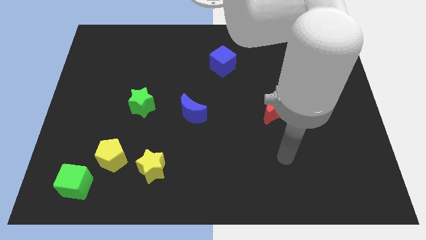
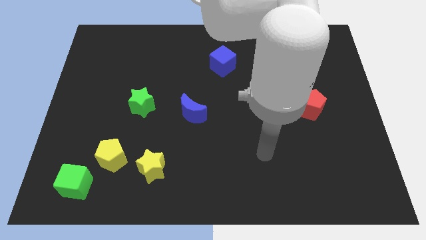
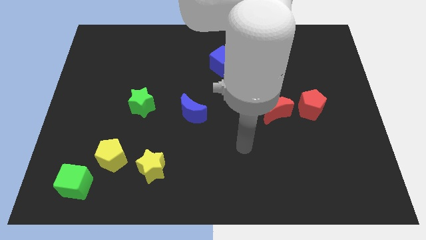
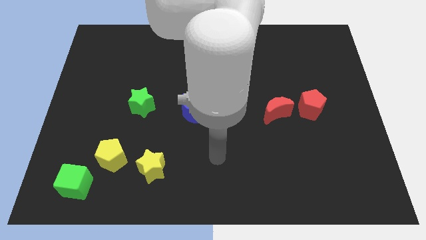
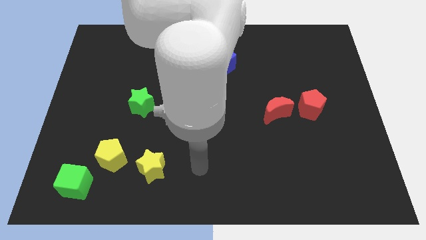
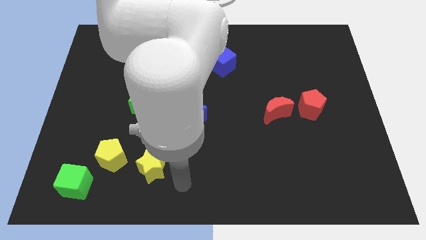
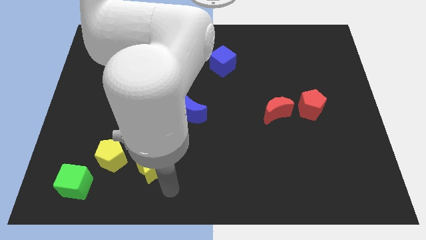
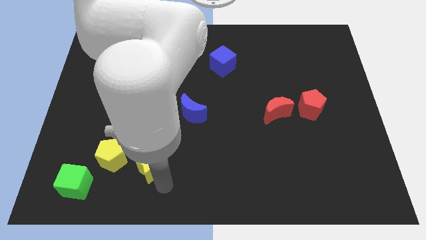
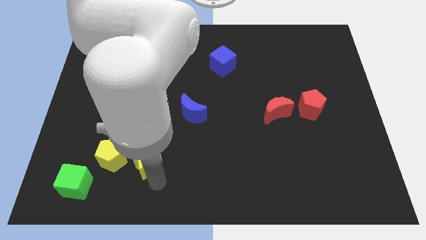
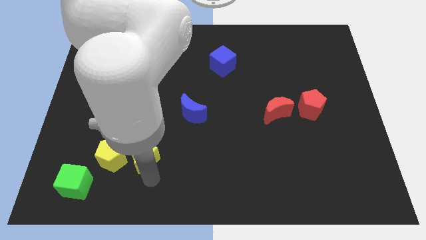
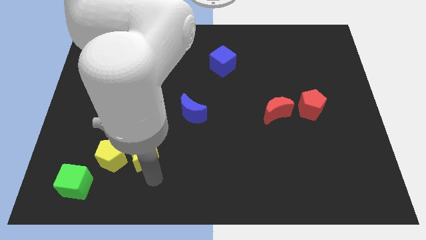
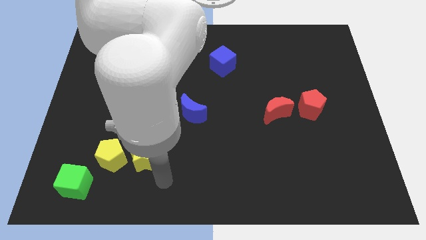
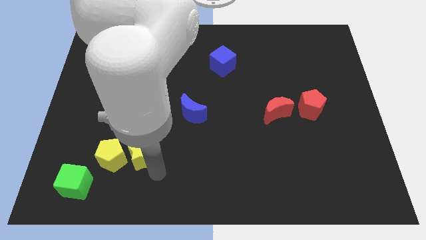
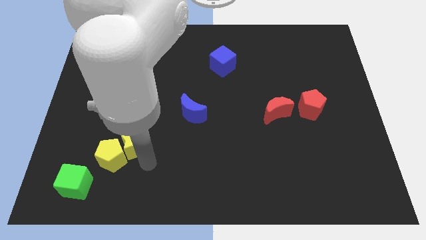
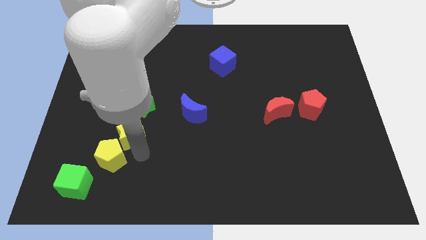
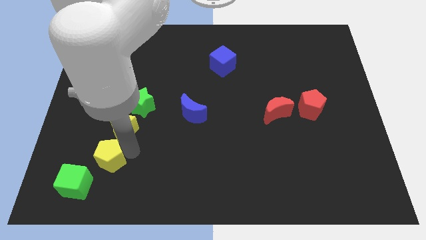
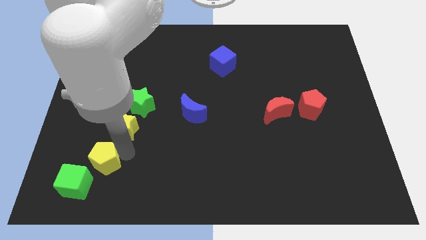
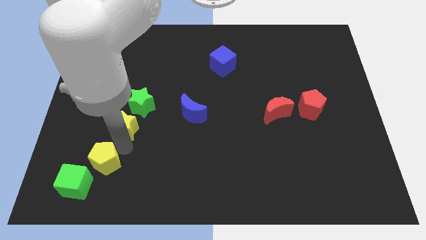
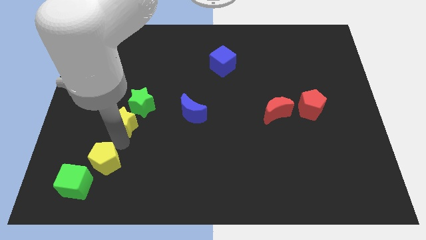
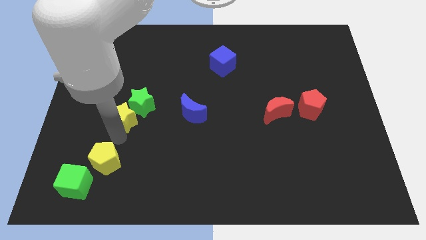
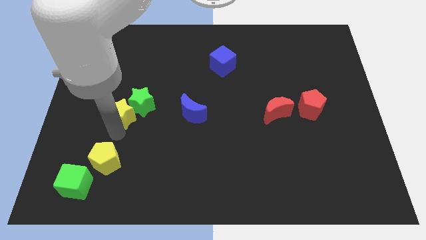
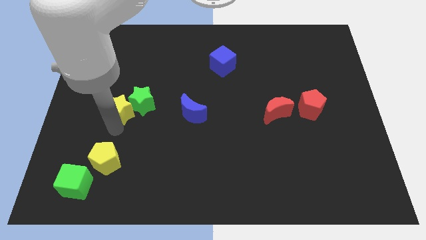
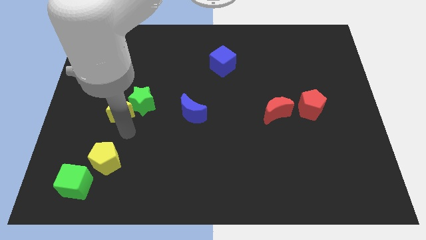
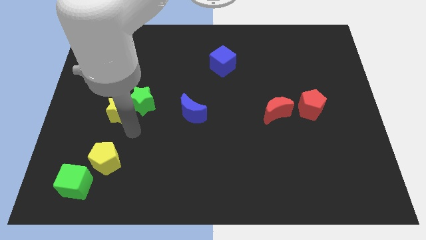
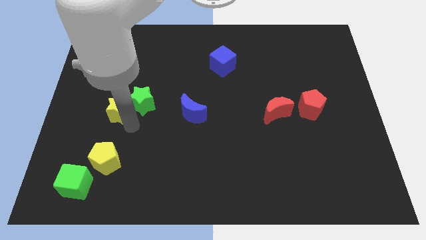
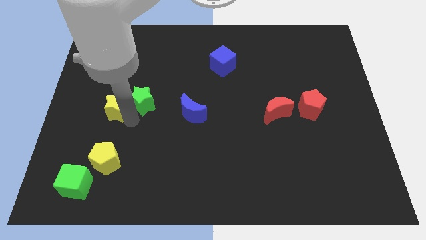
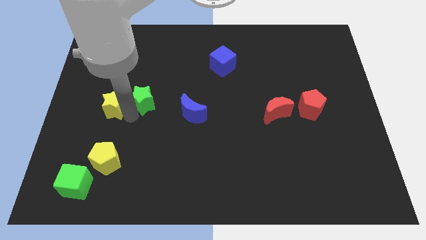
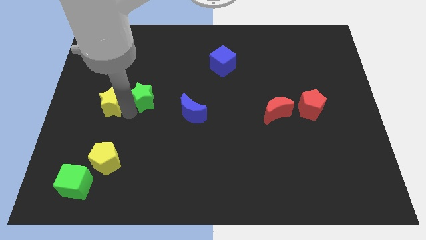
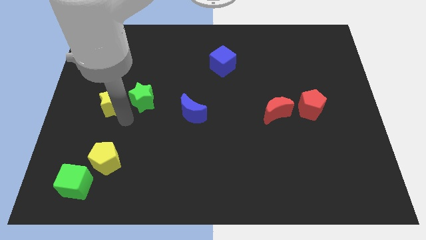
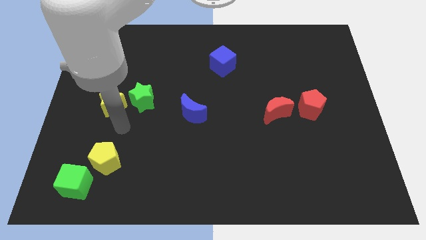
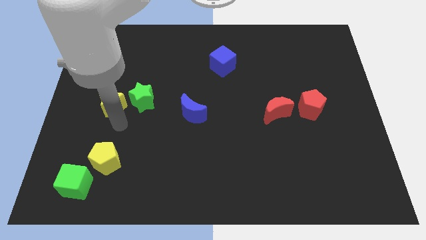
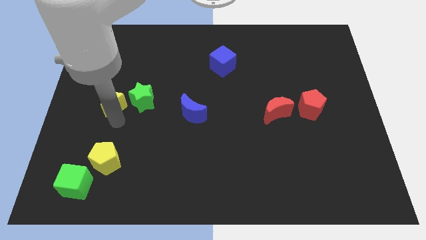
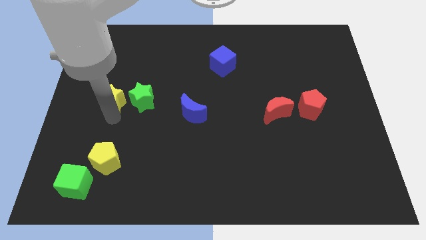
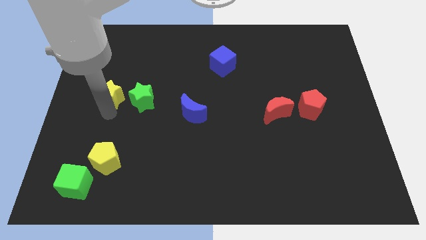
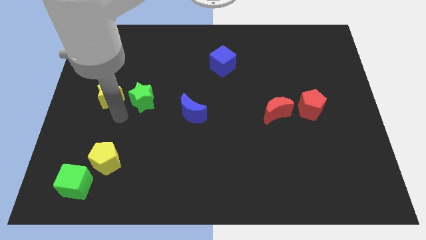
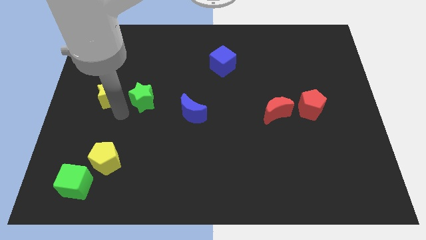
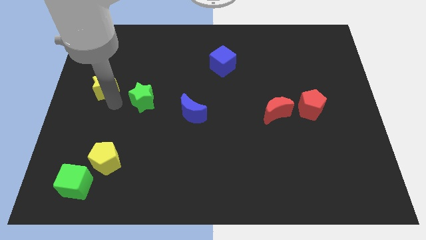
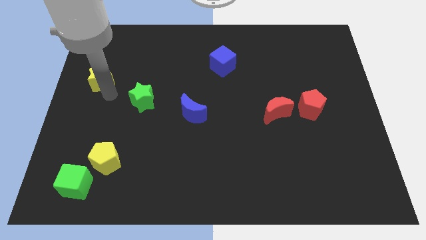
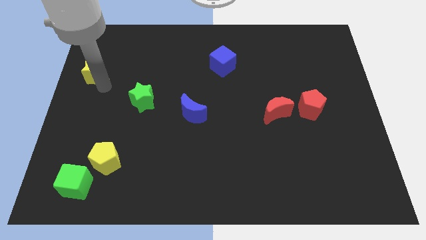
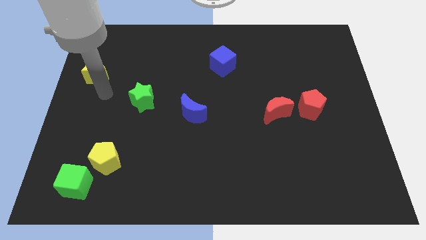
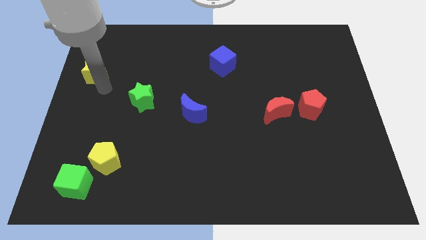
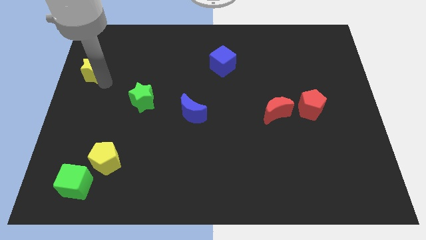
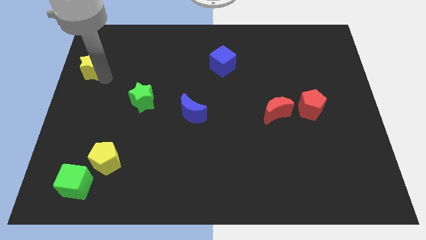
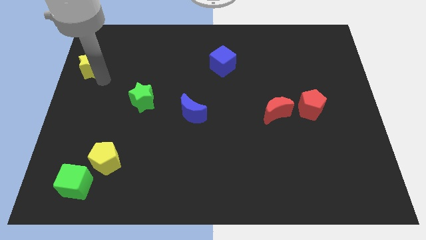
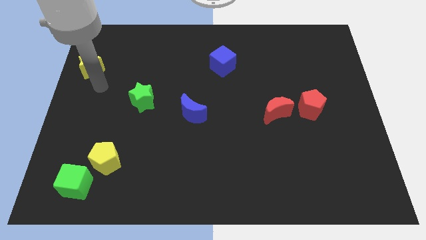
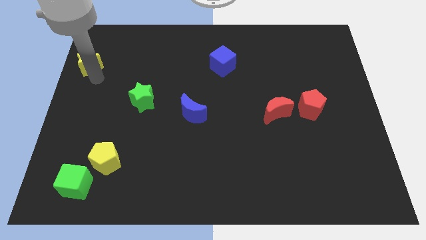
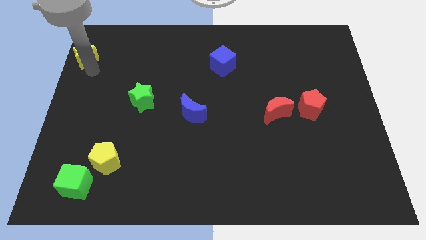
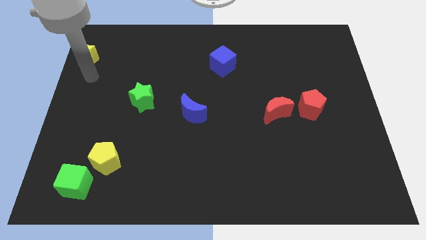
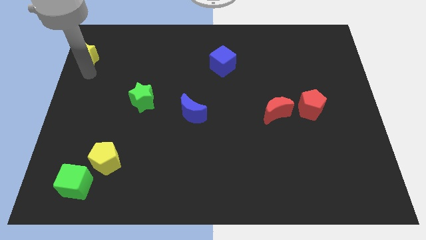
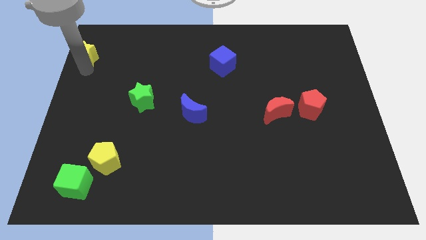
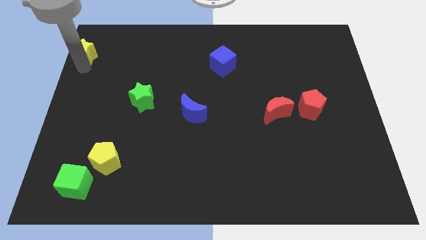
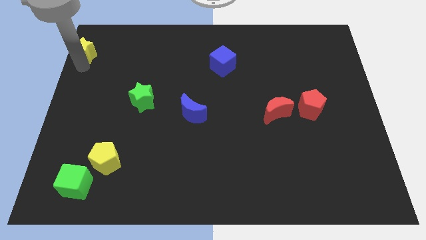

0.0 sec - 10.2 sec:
put the yellow star to the top left

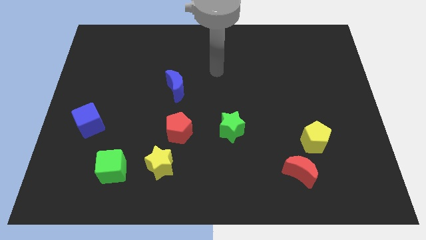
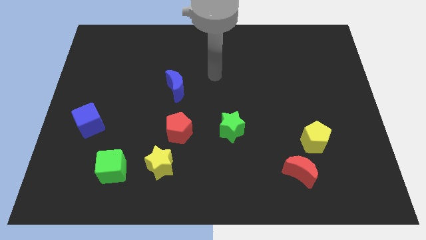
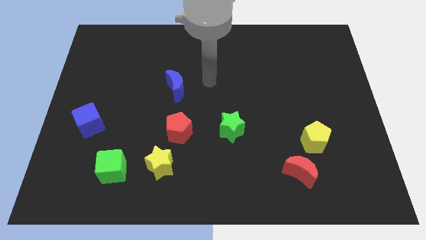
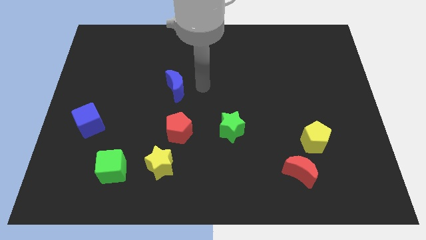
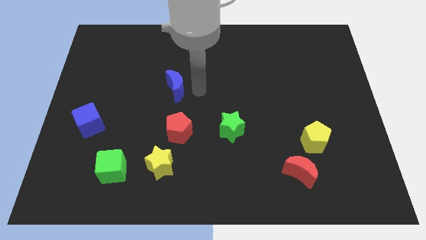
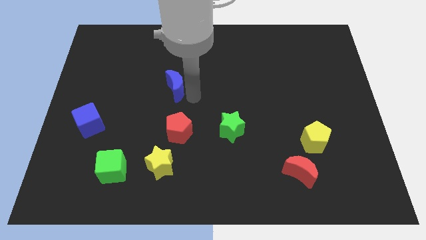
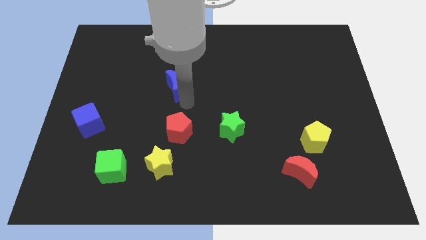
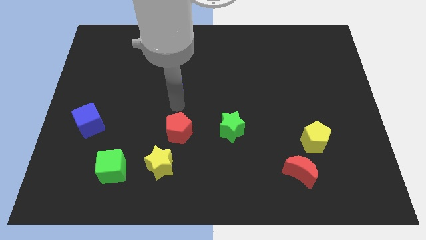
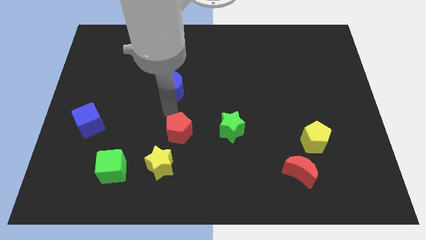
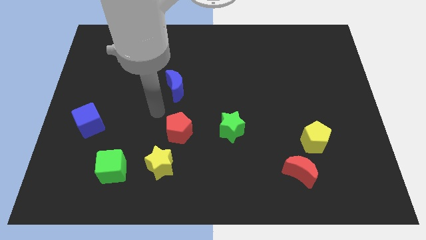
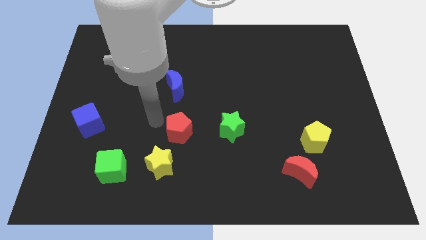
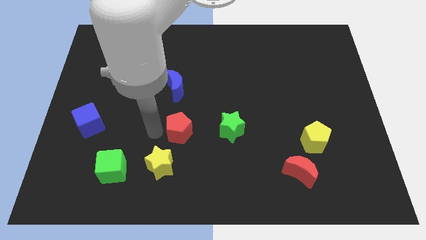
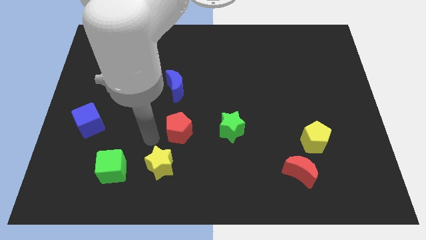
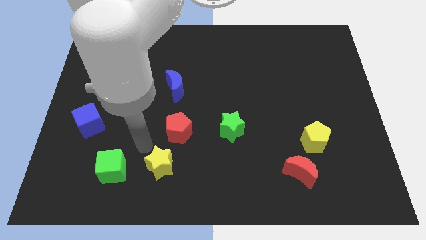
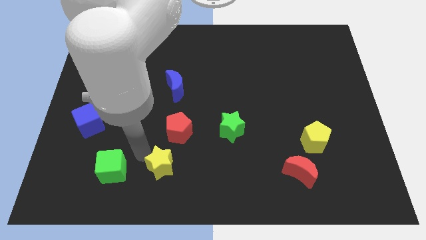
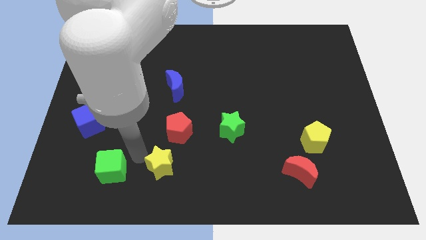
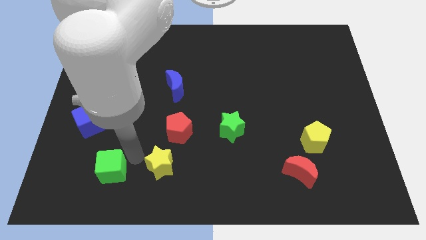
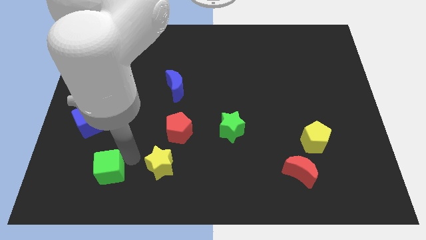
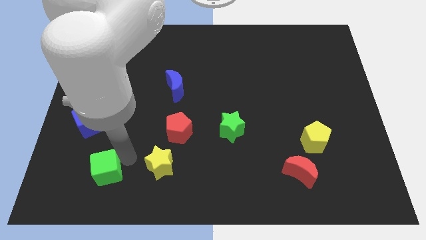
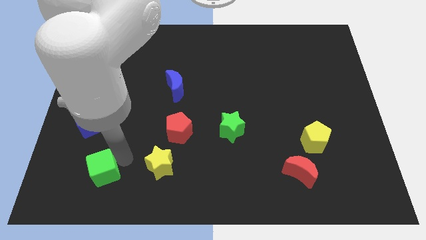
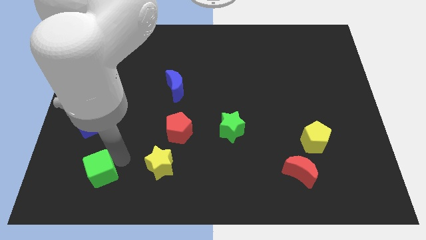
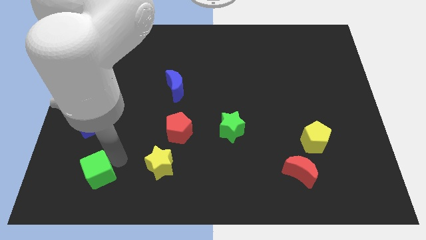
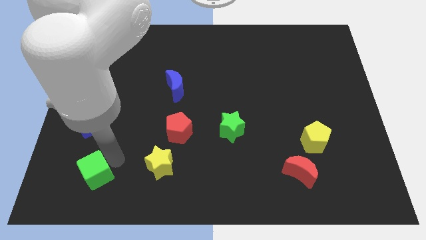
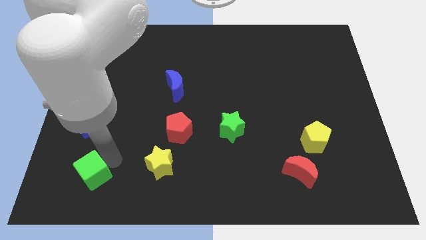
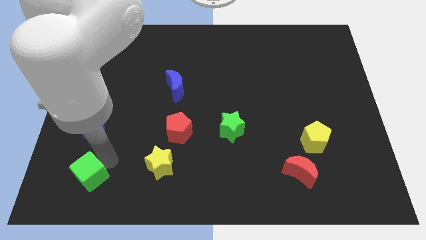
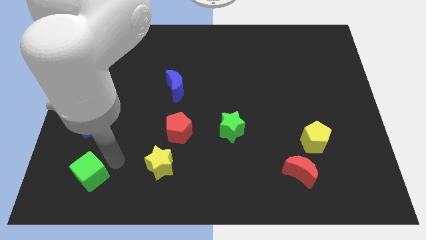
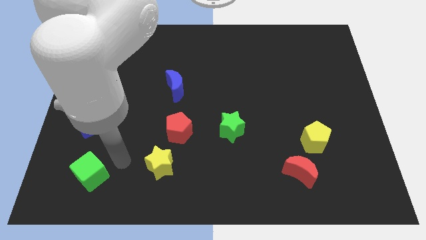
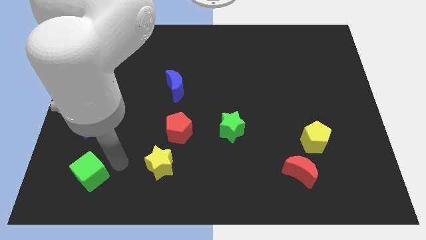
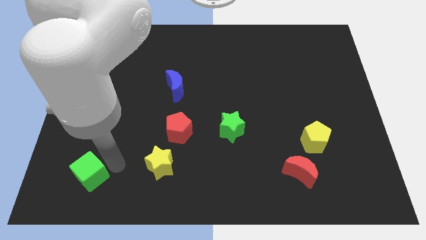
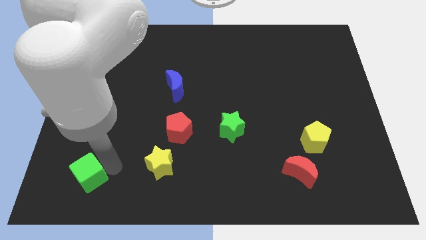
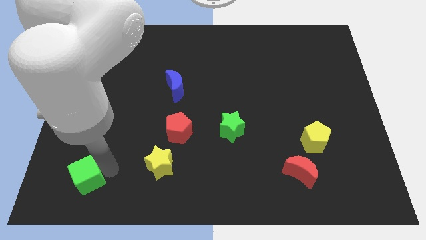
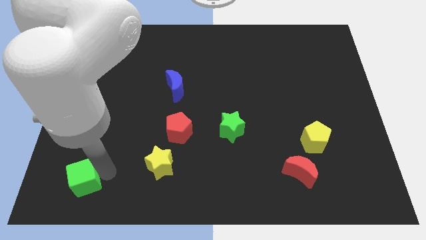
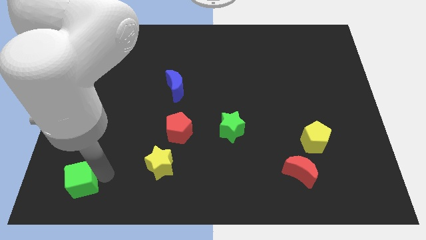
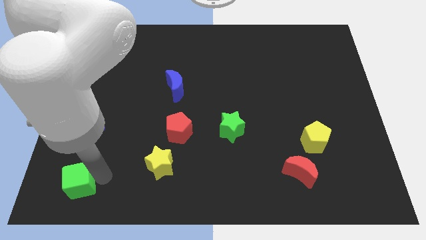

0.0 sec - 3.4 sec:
move the green cube to the bottom left corner
